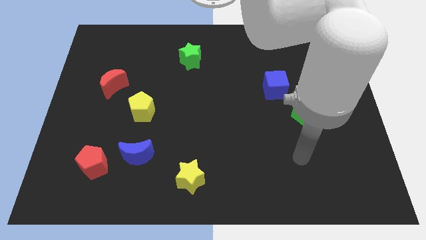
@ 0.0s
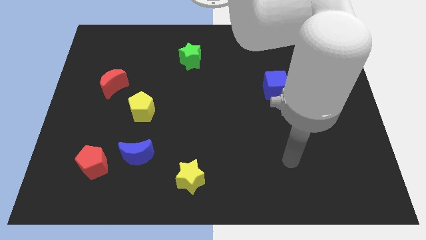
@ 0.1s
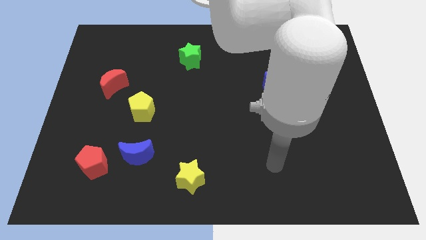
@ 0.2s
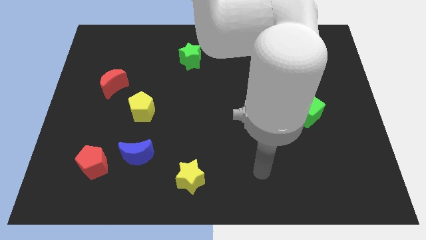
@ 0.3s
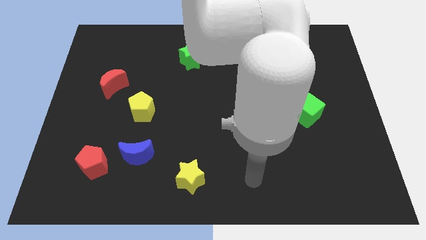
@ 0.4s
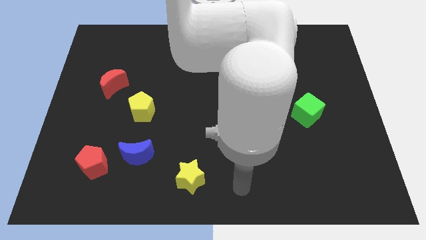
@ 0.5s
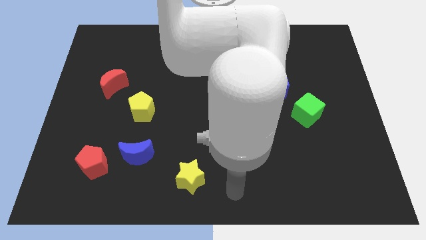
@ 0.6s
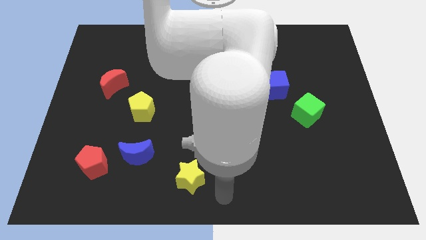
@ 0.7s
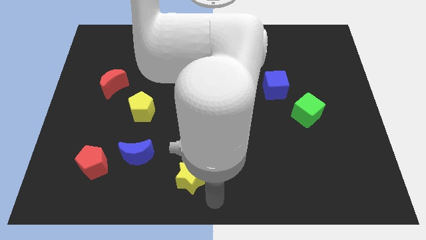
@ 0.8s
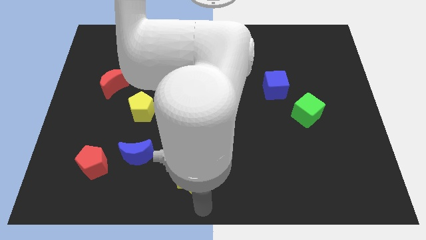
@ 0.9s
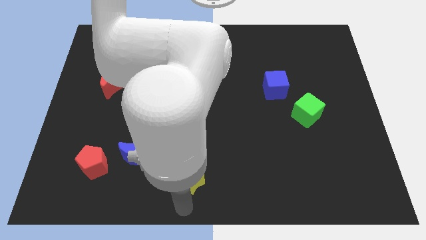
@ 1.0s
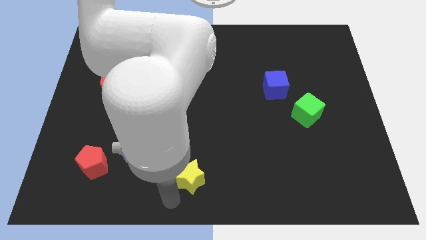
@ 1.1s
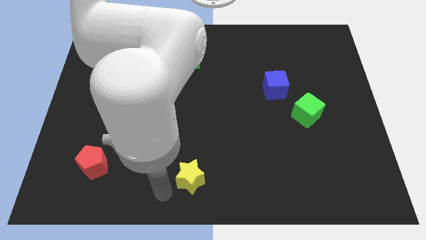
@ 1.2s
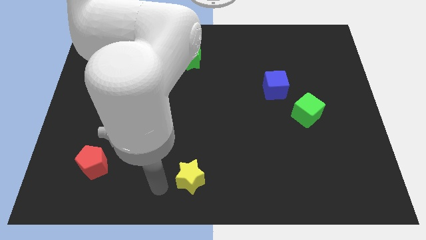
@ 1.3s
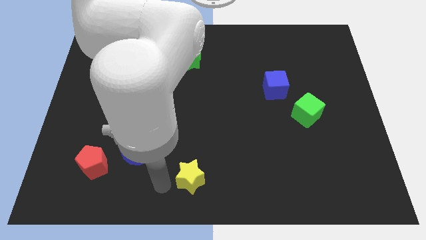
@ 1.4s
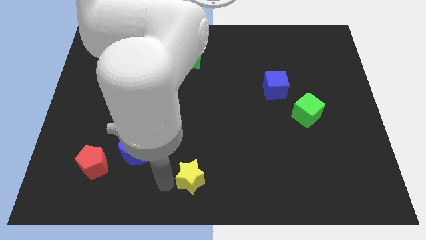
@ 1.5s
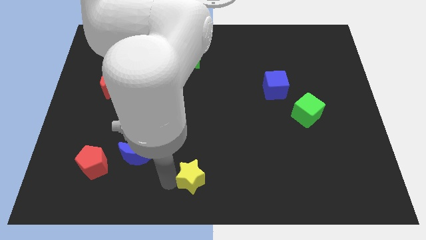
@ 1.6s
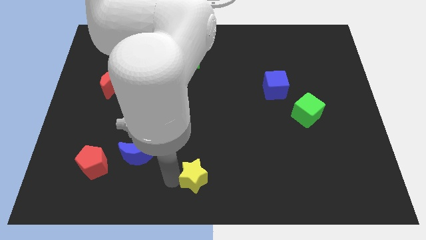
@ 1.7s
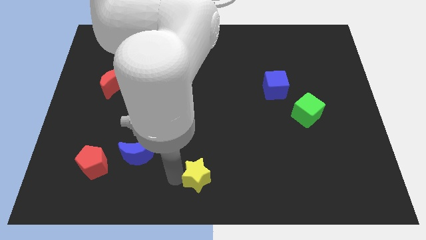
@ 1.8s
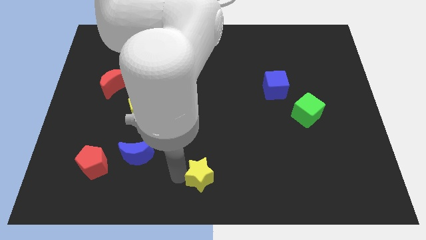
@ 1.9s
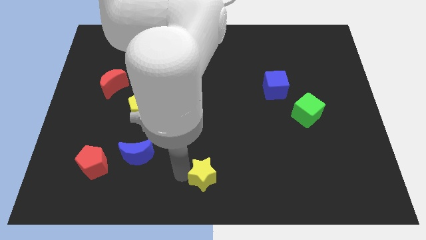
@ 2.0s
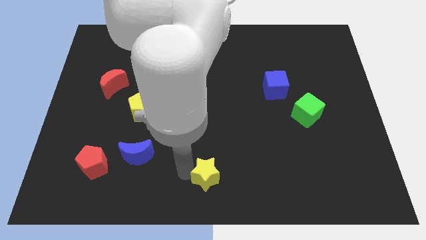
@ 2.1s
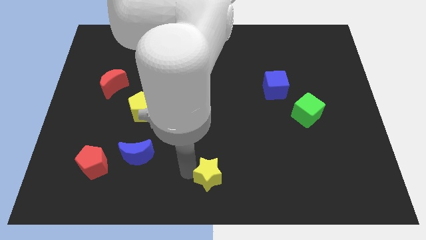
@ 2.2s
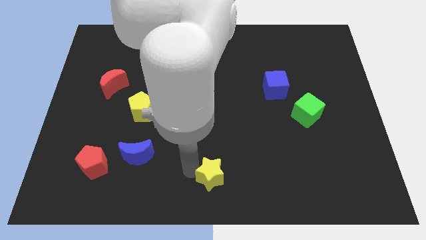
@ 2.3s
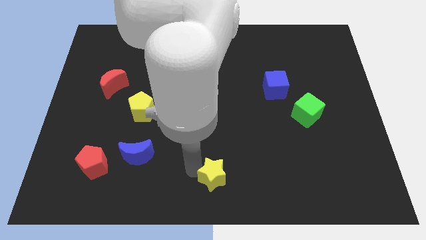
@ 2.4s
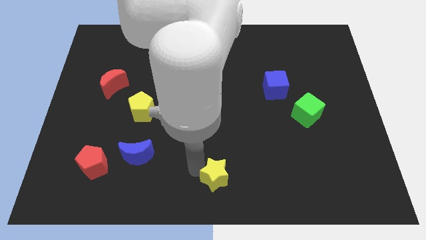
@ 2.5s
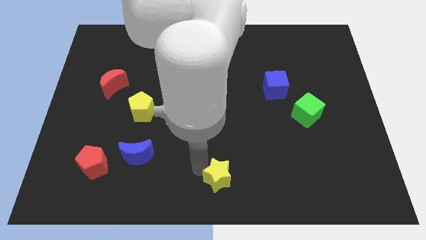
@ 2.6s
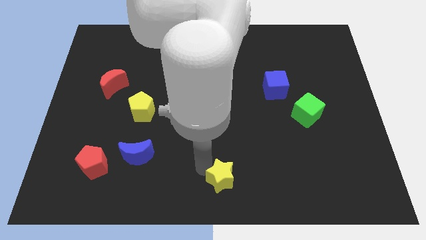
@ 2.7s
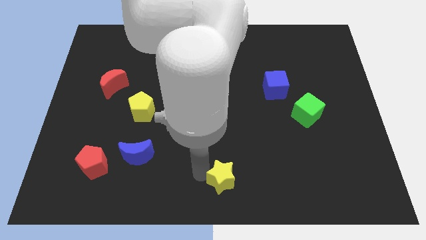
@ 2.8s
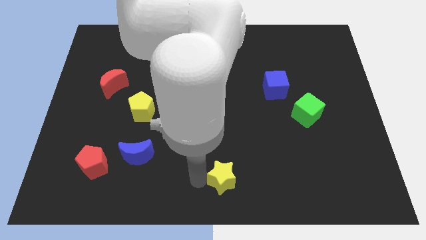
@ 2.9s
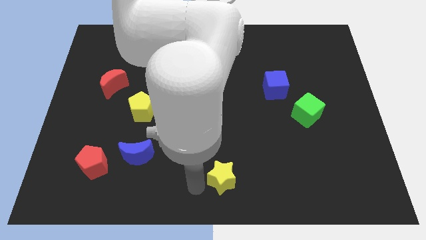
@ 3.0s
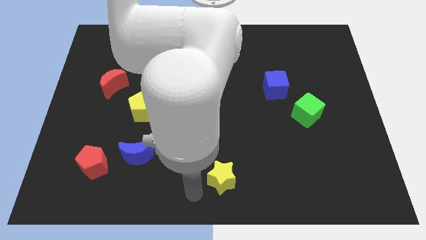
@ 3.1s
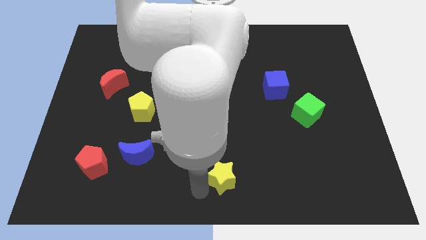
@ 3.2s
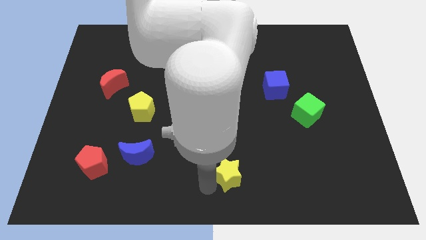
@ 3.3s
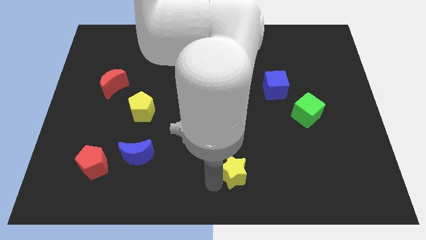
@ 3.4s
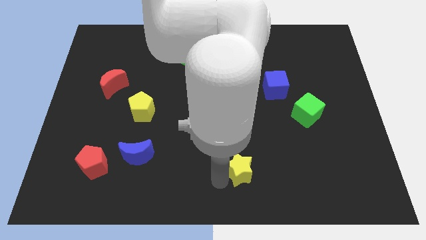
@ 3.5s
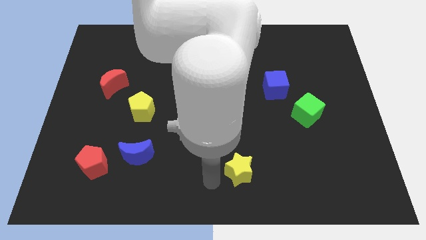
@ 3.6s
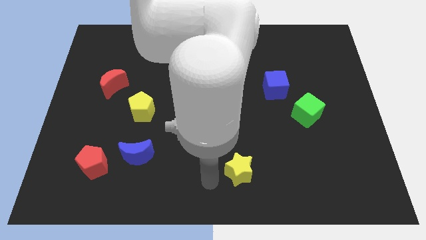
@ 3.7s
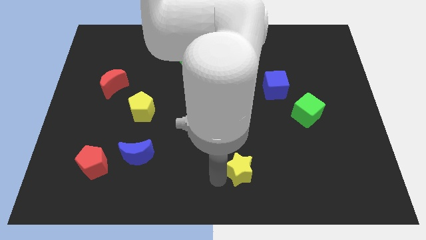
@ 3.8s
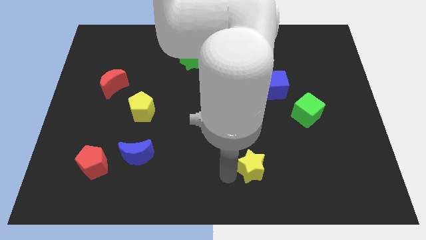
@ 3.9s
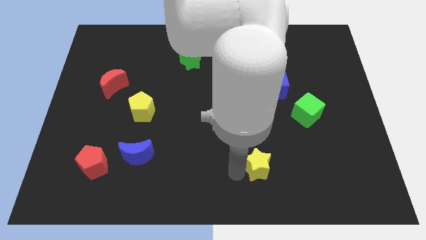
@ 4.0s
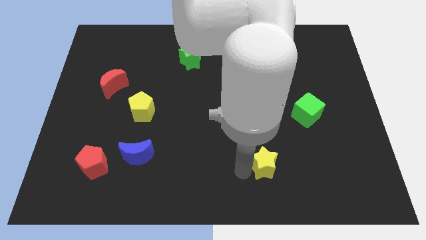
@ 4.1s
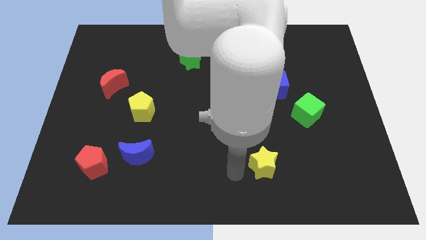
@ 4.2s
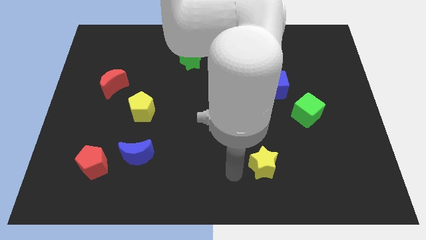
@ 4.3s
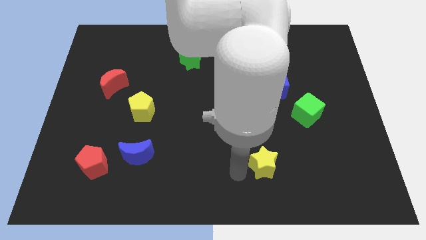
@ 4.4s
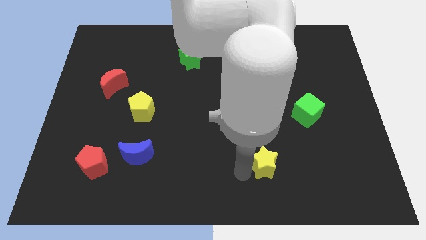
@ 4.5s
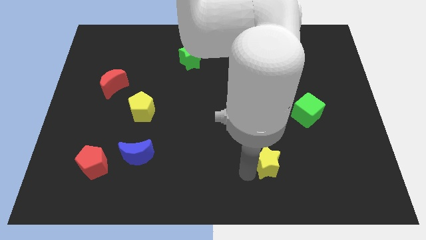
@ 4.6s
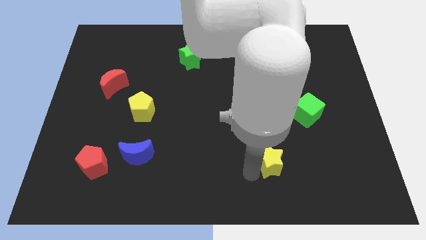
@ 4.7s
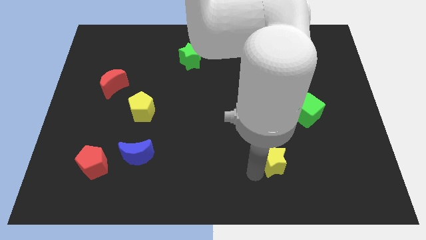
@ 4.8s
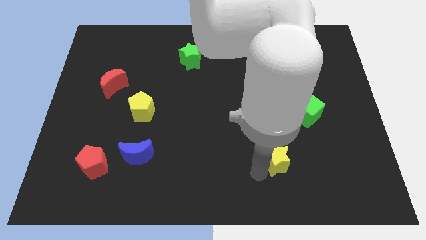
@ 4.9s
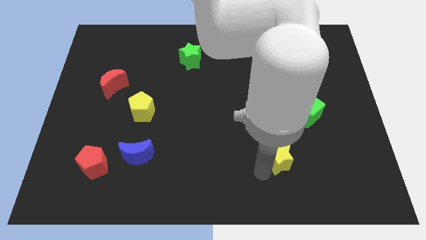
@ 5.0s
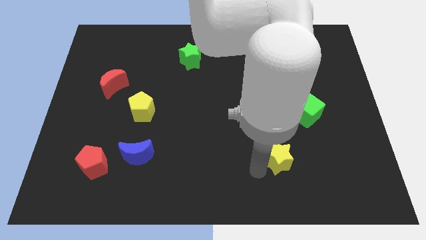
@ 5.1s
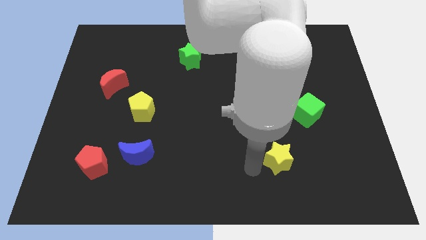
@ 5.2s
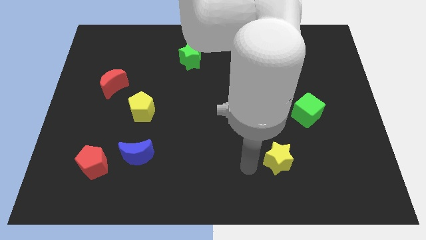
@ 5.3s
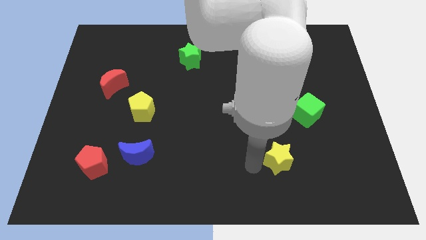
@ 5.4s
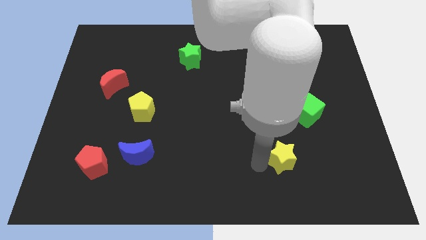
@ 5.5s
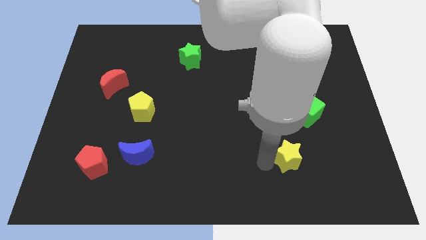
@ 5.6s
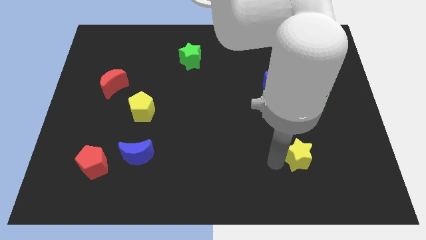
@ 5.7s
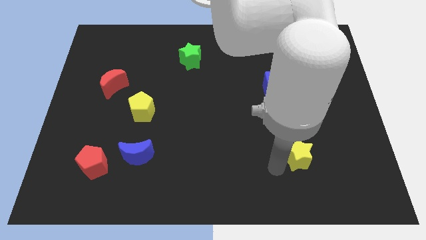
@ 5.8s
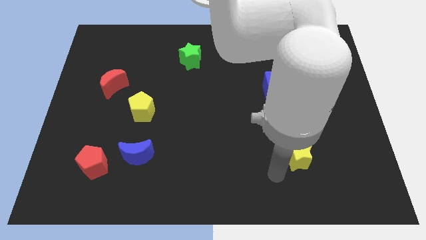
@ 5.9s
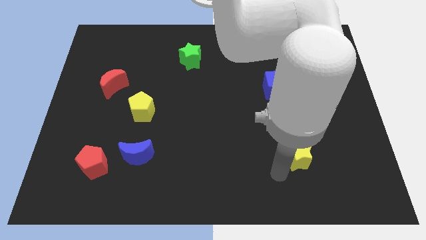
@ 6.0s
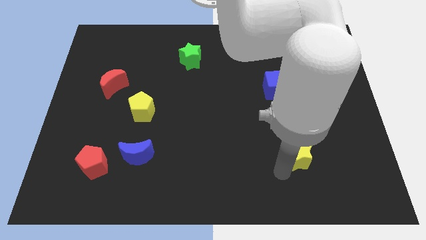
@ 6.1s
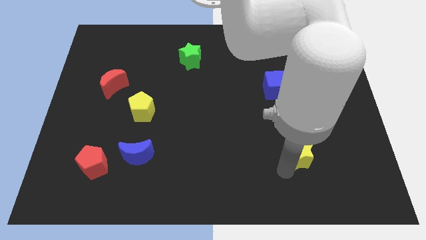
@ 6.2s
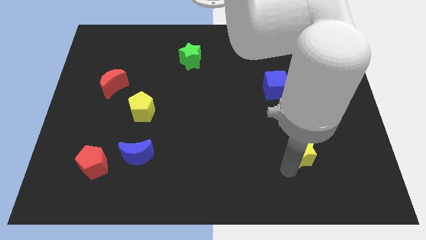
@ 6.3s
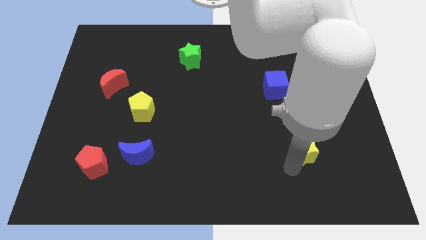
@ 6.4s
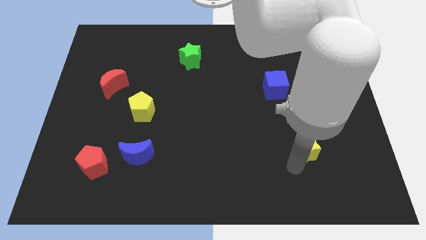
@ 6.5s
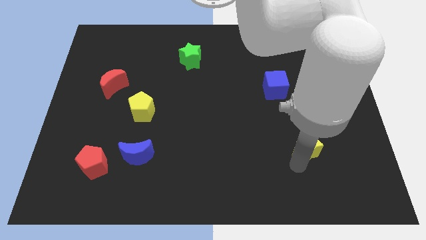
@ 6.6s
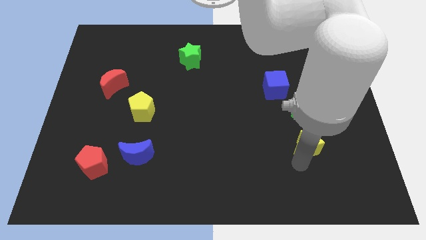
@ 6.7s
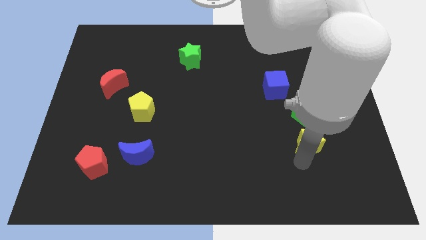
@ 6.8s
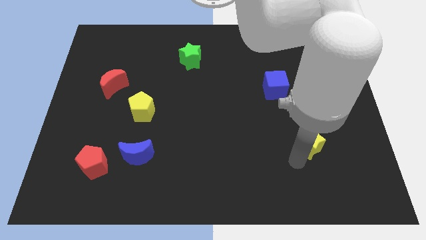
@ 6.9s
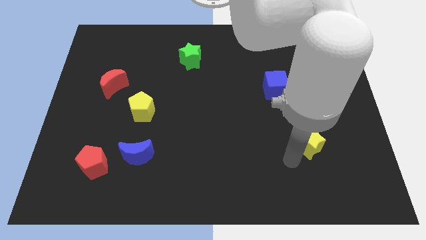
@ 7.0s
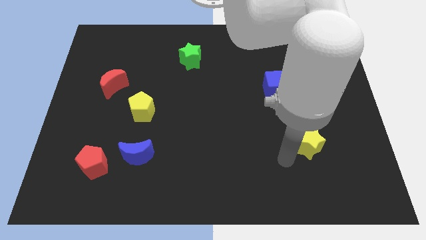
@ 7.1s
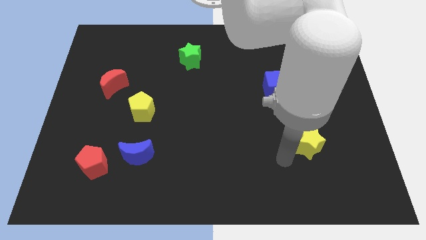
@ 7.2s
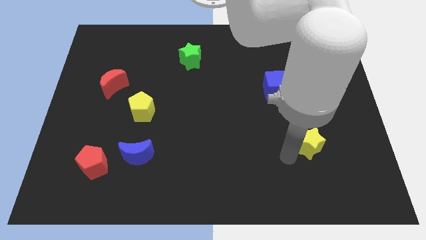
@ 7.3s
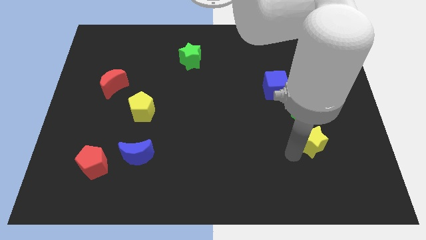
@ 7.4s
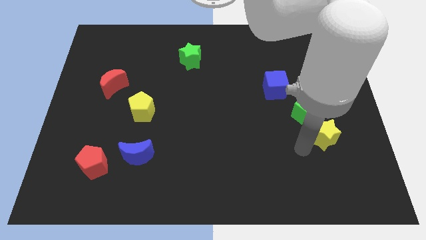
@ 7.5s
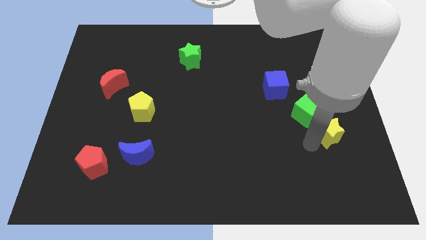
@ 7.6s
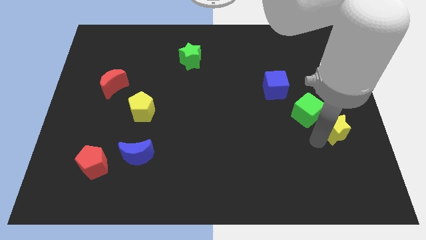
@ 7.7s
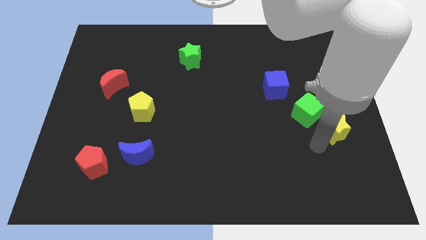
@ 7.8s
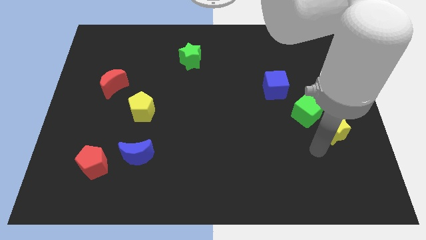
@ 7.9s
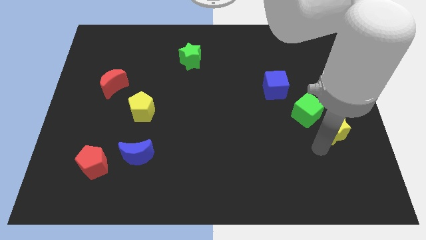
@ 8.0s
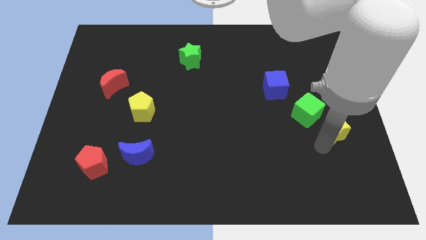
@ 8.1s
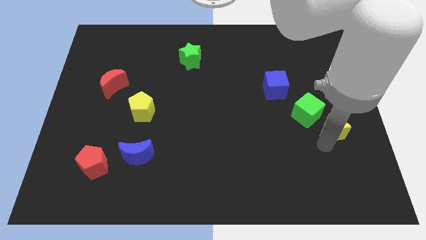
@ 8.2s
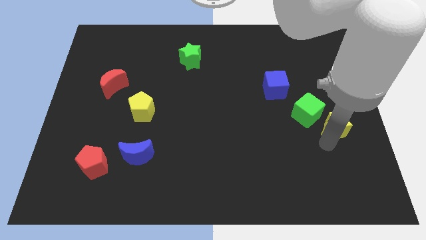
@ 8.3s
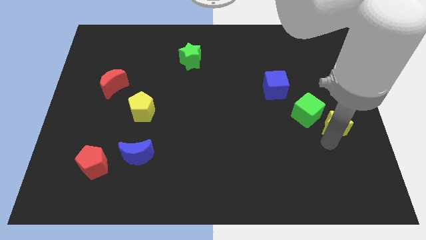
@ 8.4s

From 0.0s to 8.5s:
push the yellow star to the right side of the board
